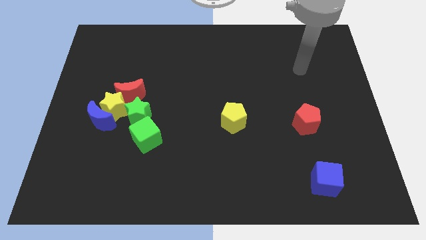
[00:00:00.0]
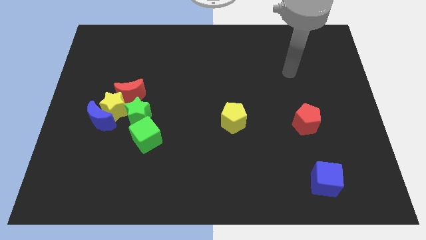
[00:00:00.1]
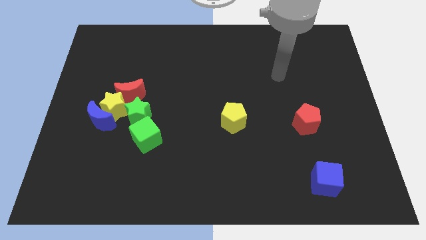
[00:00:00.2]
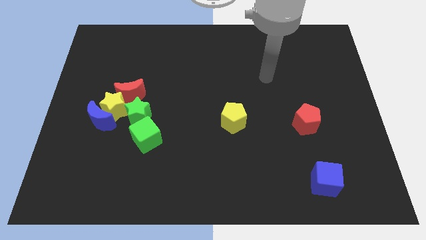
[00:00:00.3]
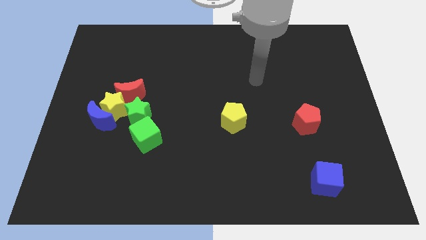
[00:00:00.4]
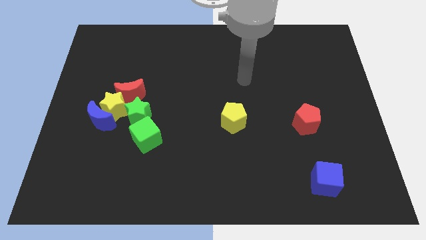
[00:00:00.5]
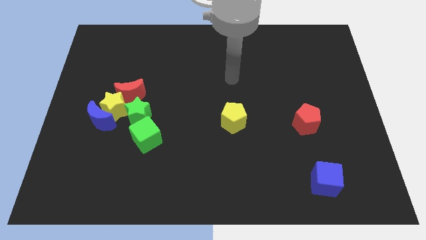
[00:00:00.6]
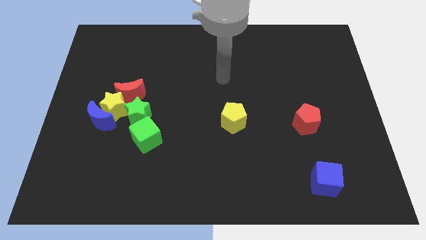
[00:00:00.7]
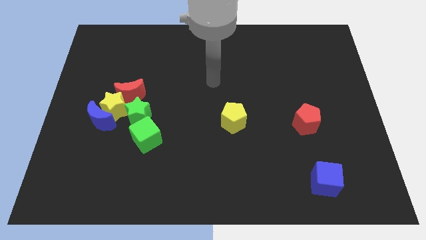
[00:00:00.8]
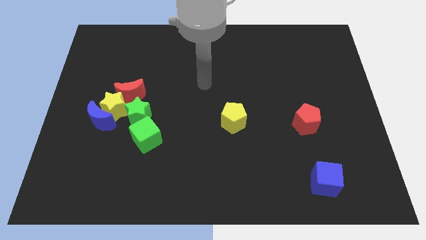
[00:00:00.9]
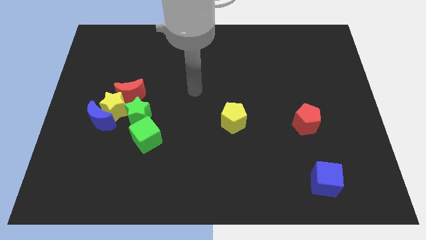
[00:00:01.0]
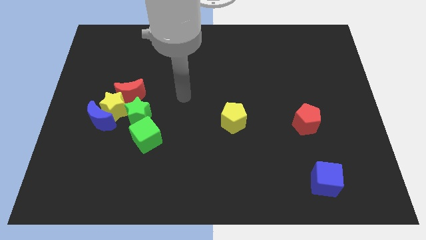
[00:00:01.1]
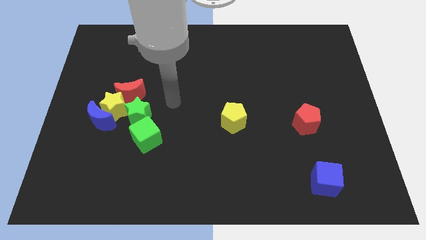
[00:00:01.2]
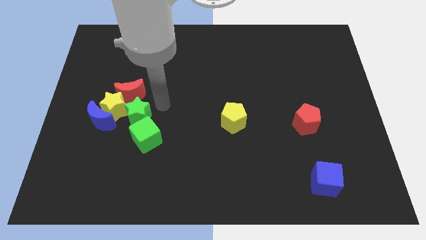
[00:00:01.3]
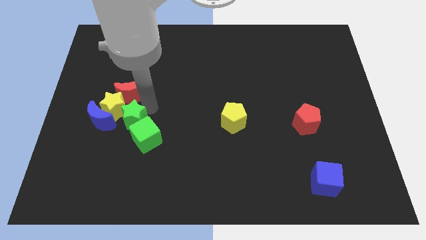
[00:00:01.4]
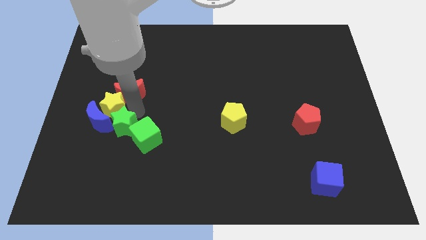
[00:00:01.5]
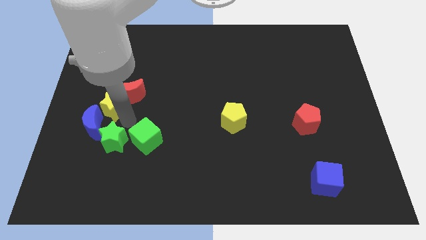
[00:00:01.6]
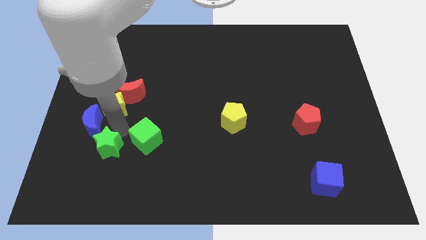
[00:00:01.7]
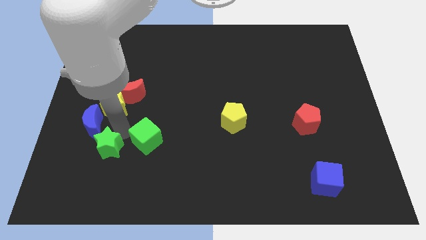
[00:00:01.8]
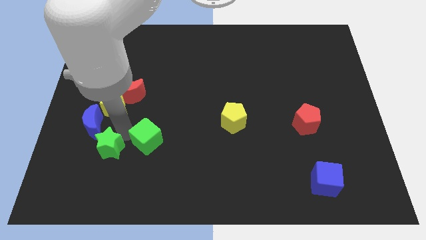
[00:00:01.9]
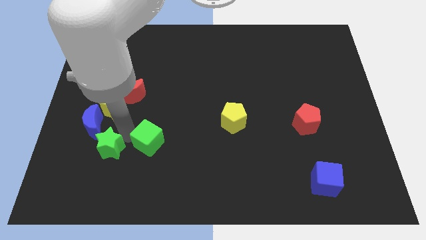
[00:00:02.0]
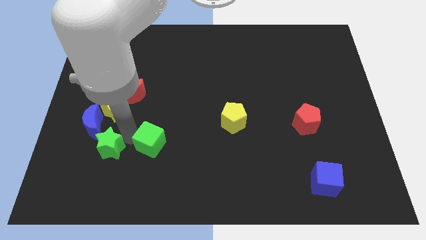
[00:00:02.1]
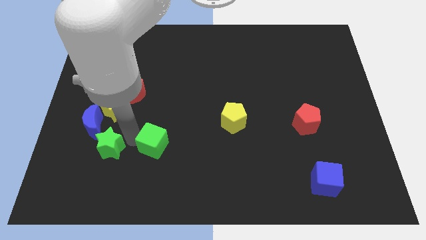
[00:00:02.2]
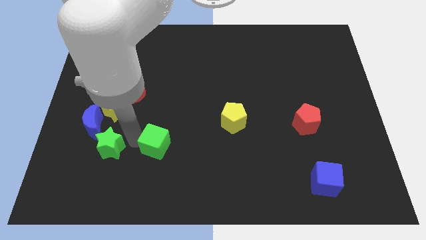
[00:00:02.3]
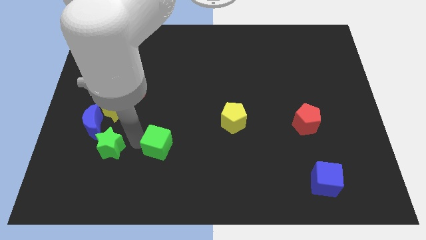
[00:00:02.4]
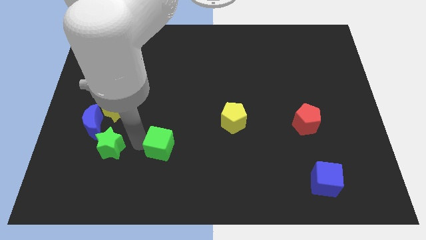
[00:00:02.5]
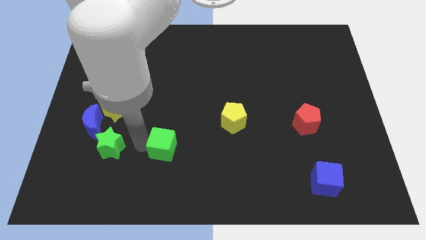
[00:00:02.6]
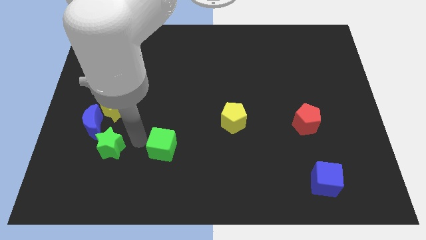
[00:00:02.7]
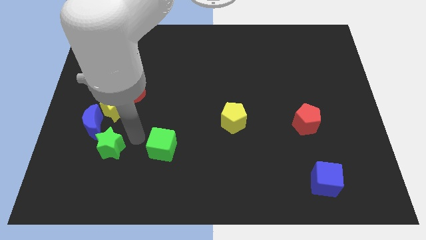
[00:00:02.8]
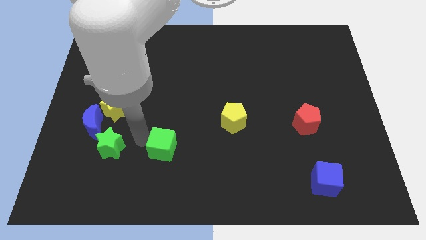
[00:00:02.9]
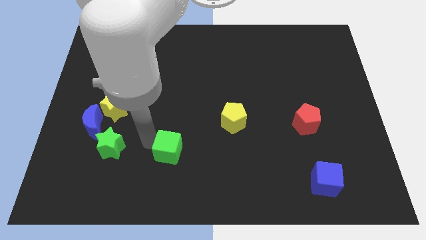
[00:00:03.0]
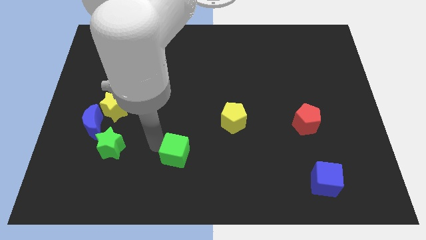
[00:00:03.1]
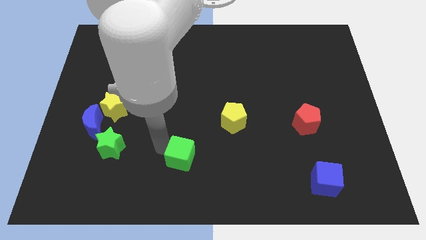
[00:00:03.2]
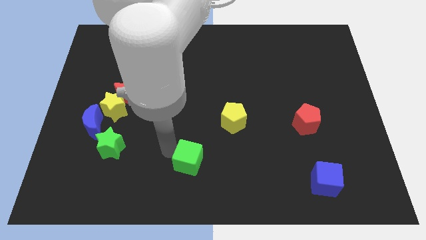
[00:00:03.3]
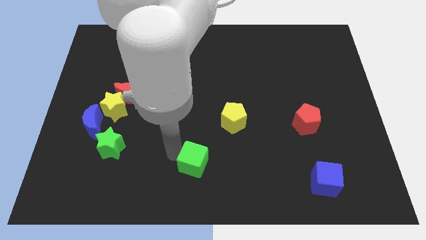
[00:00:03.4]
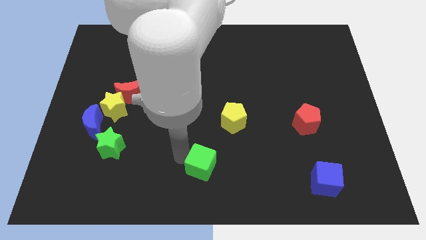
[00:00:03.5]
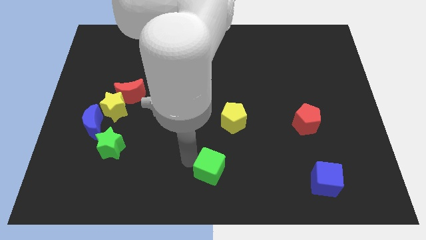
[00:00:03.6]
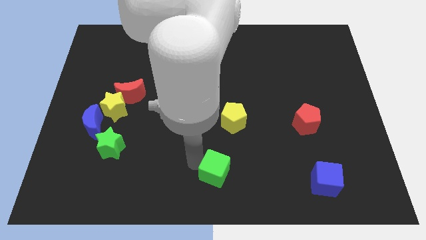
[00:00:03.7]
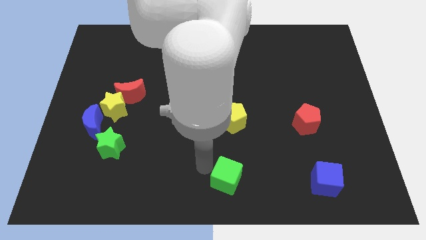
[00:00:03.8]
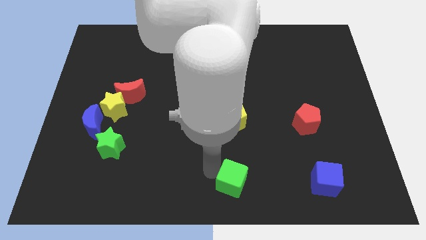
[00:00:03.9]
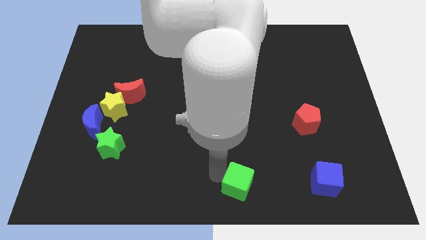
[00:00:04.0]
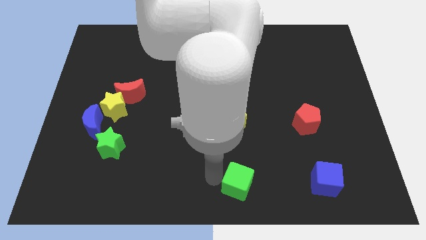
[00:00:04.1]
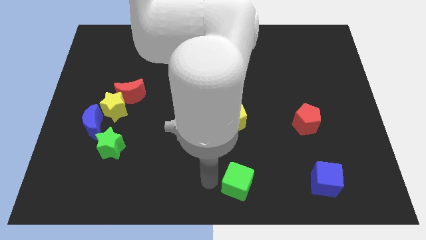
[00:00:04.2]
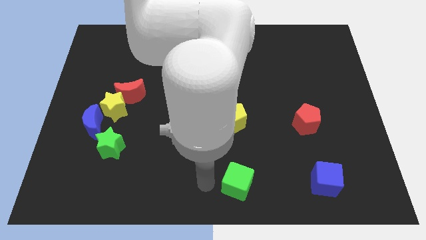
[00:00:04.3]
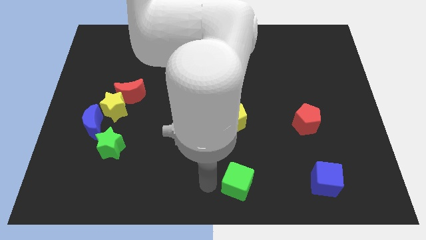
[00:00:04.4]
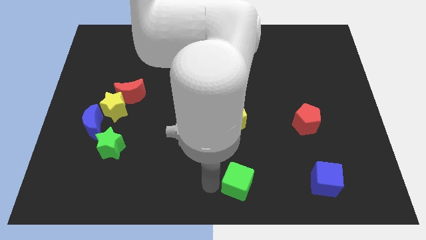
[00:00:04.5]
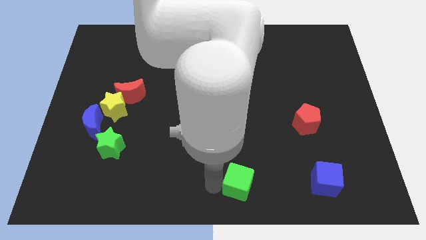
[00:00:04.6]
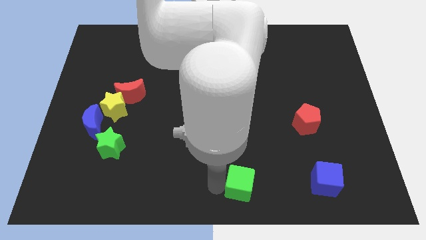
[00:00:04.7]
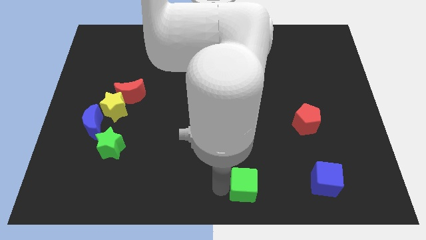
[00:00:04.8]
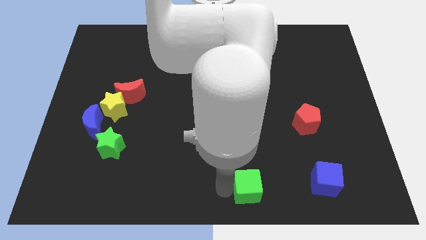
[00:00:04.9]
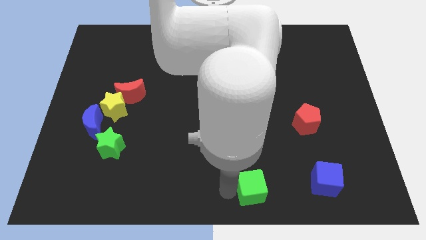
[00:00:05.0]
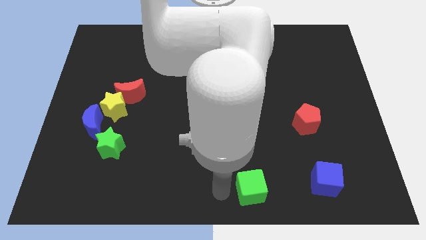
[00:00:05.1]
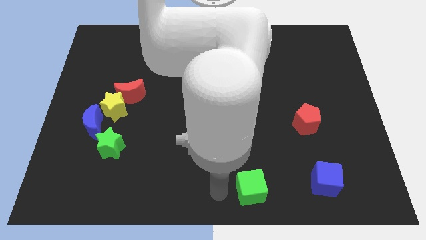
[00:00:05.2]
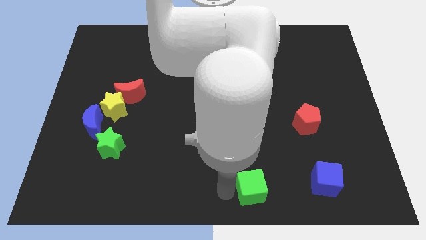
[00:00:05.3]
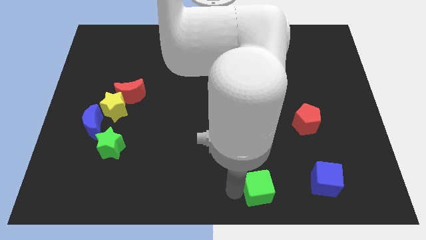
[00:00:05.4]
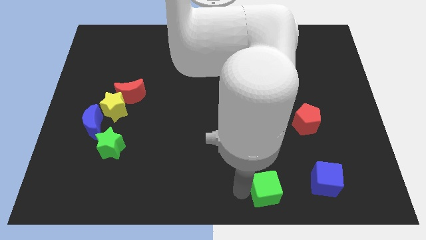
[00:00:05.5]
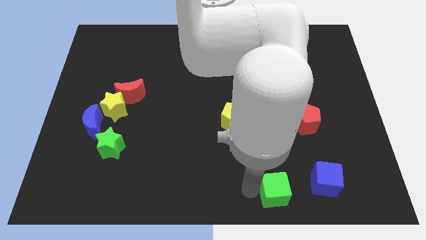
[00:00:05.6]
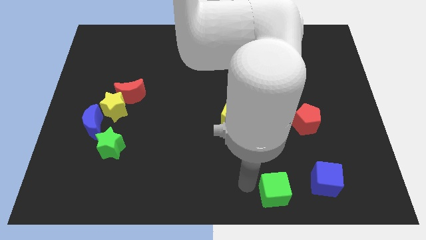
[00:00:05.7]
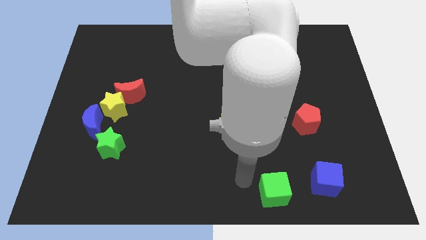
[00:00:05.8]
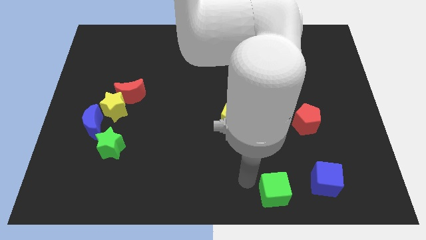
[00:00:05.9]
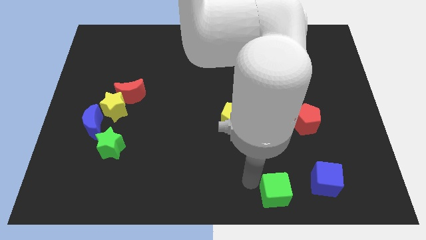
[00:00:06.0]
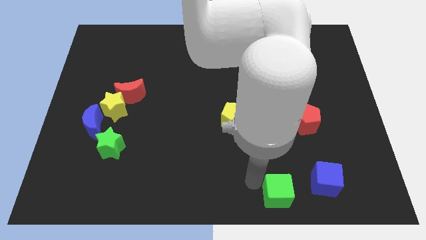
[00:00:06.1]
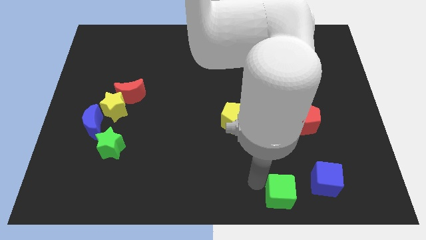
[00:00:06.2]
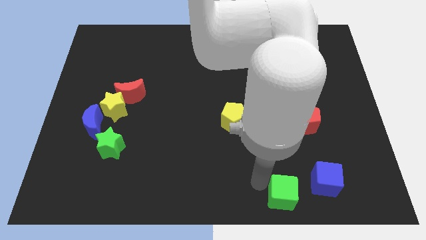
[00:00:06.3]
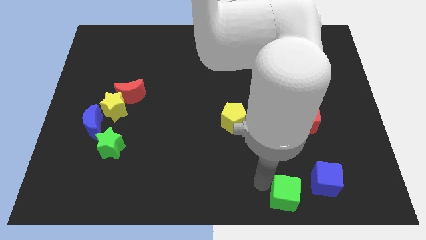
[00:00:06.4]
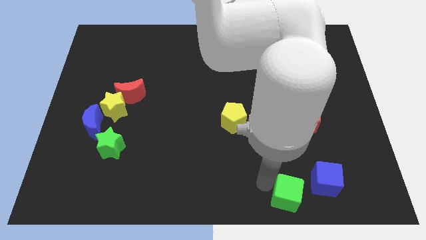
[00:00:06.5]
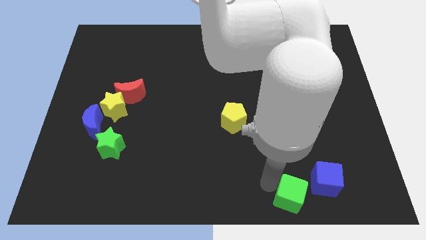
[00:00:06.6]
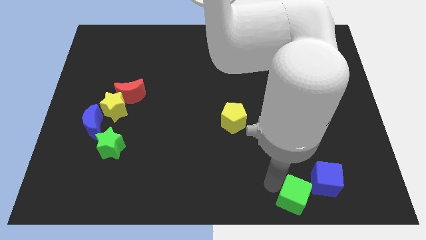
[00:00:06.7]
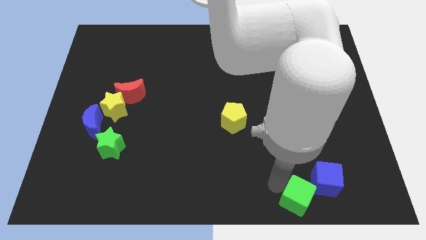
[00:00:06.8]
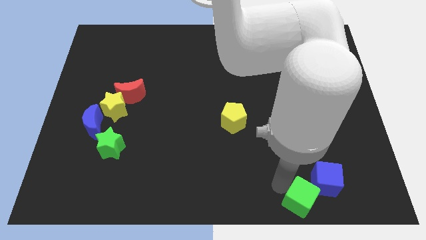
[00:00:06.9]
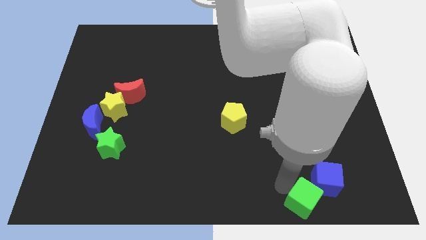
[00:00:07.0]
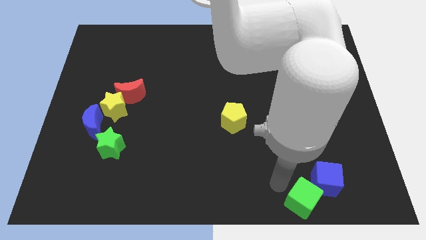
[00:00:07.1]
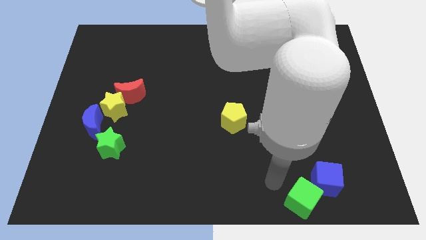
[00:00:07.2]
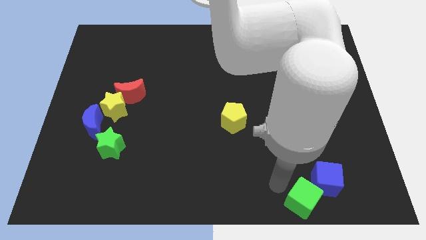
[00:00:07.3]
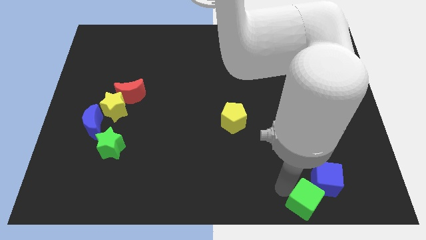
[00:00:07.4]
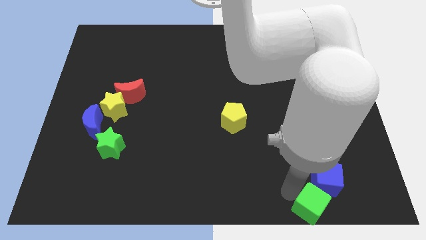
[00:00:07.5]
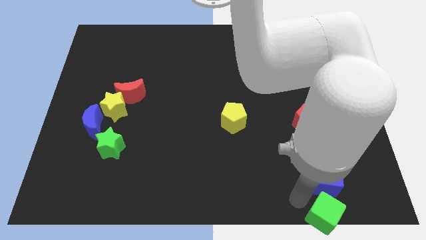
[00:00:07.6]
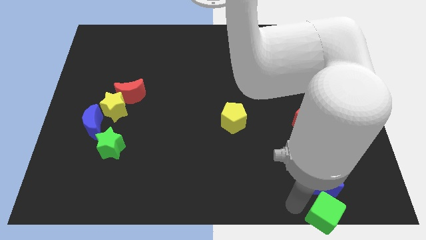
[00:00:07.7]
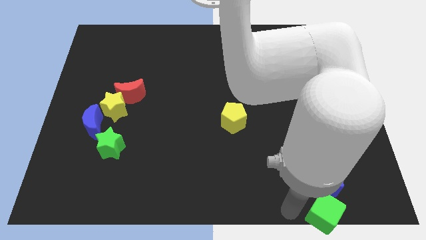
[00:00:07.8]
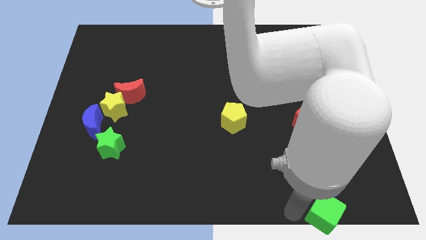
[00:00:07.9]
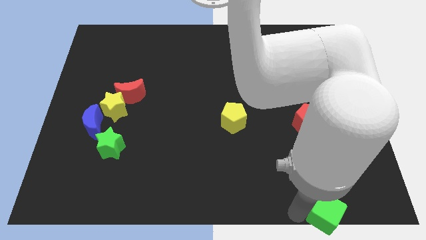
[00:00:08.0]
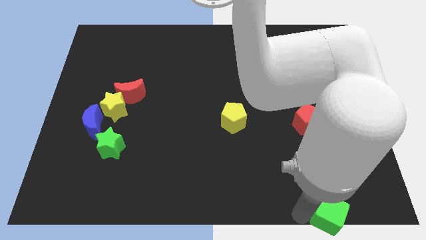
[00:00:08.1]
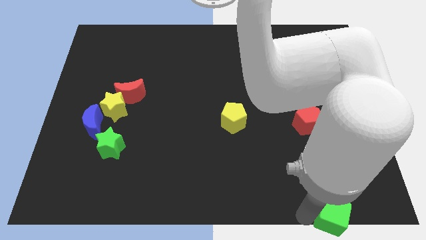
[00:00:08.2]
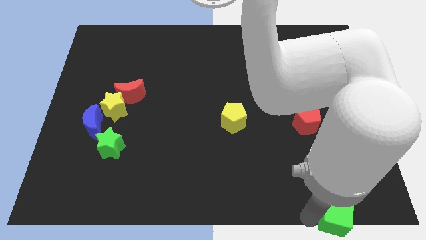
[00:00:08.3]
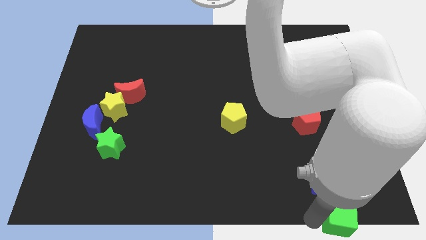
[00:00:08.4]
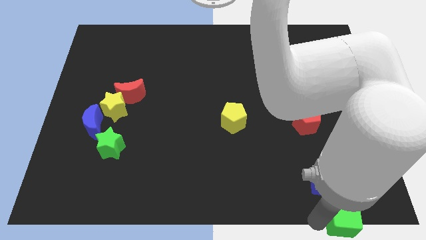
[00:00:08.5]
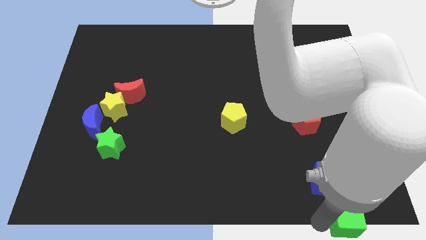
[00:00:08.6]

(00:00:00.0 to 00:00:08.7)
put the green cube to the lower right corner
